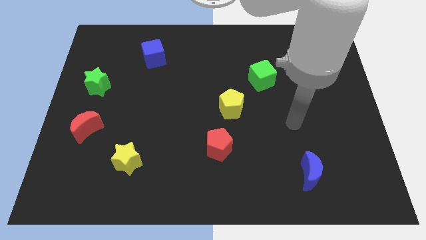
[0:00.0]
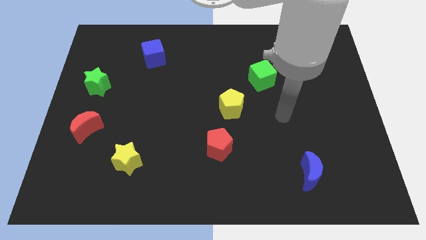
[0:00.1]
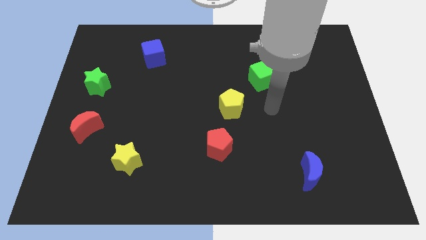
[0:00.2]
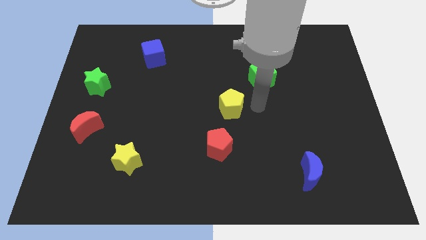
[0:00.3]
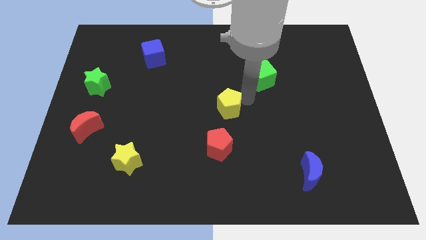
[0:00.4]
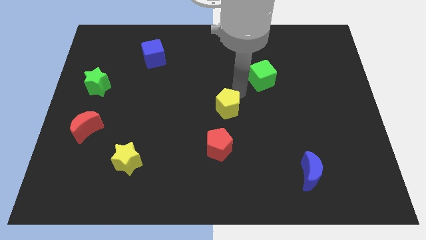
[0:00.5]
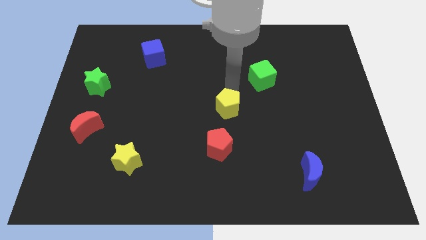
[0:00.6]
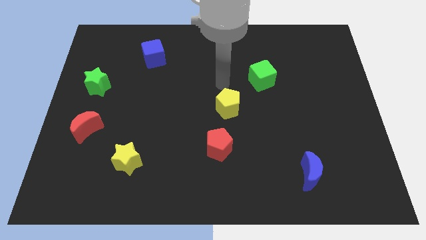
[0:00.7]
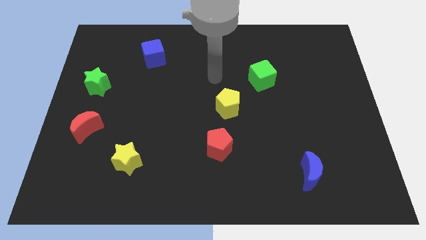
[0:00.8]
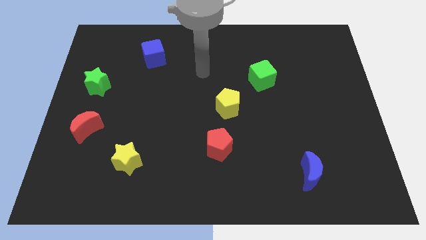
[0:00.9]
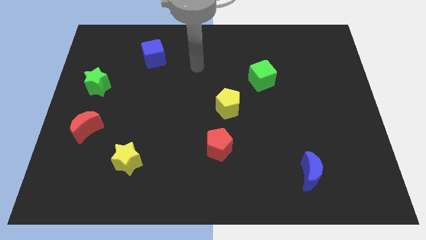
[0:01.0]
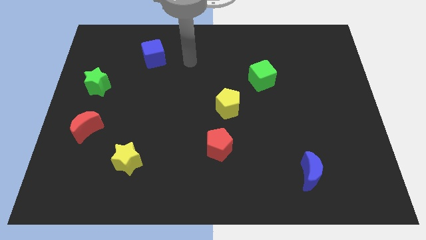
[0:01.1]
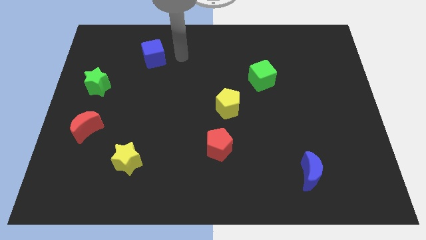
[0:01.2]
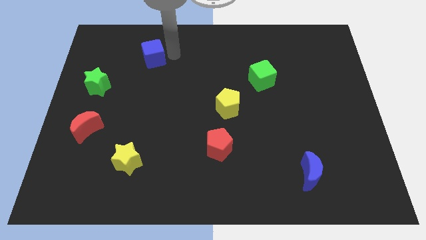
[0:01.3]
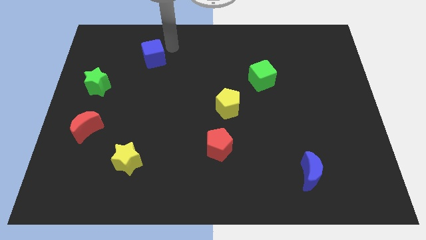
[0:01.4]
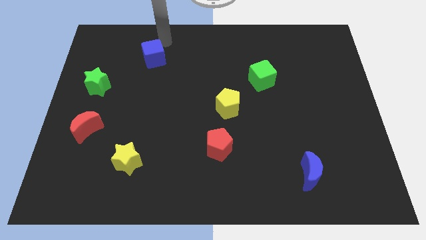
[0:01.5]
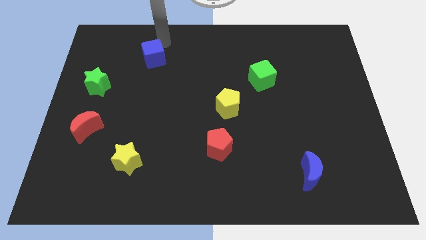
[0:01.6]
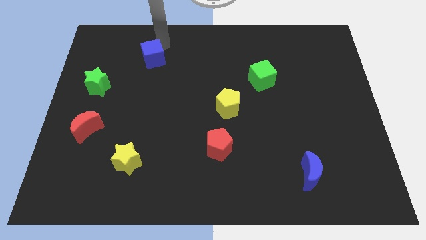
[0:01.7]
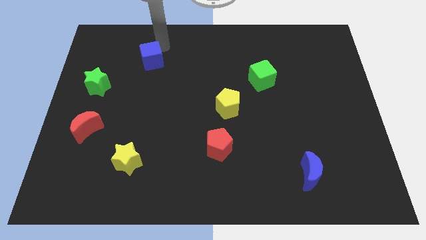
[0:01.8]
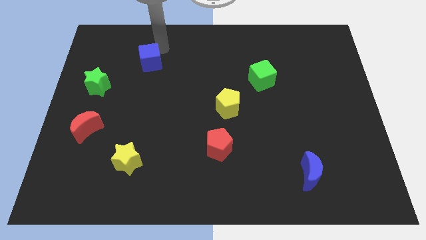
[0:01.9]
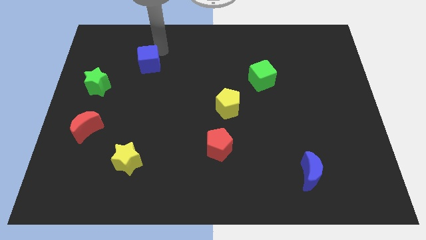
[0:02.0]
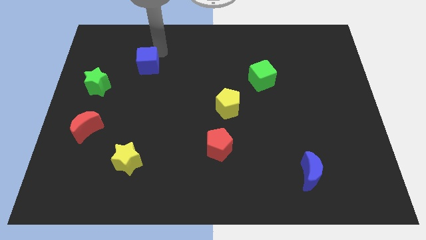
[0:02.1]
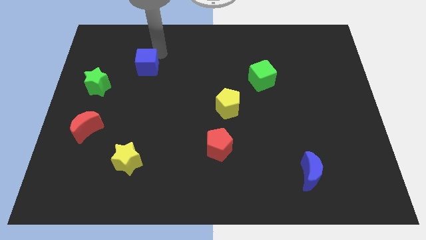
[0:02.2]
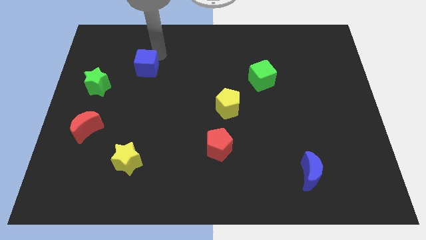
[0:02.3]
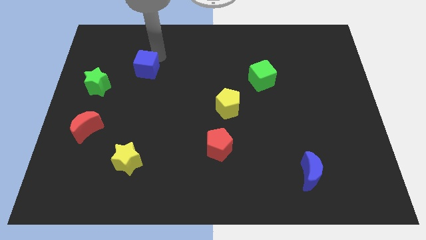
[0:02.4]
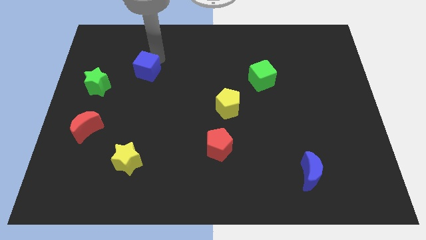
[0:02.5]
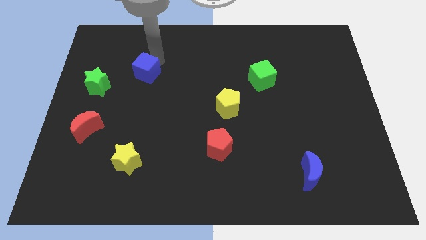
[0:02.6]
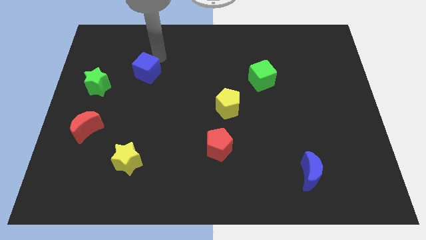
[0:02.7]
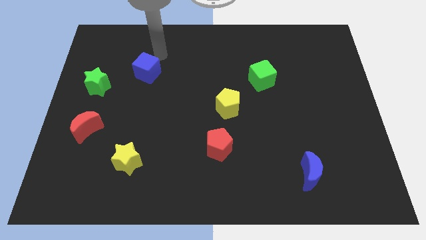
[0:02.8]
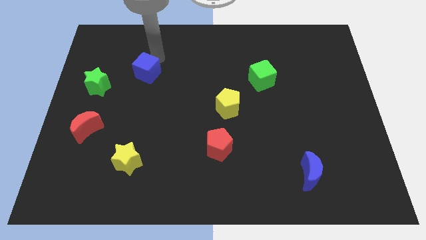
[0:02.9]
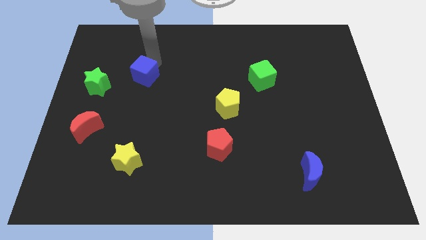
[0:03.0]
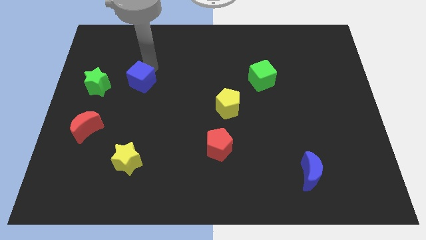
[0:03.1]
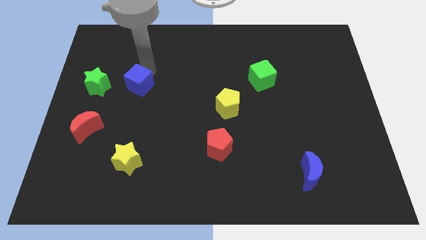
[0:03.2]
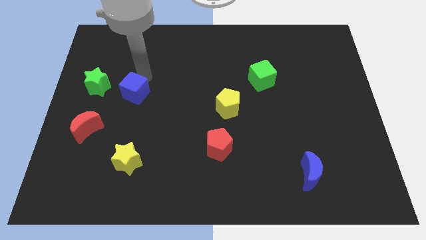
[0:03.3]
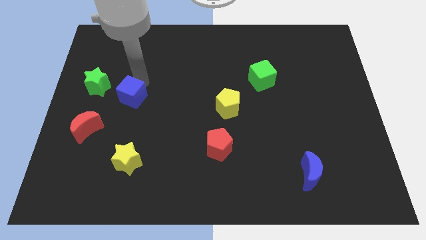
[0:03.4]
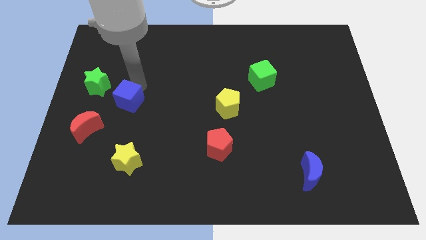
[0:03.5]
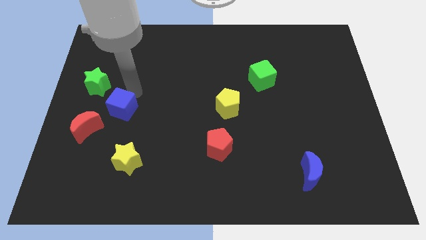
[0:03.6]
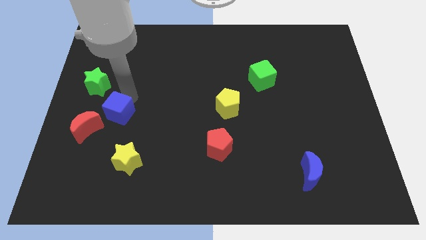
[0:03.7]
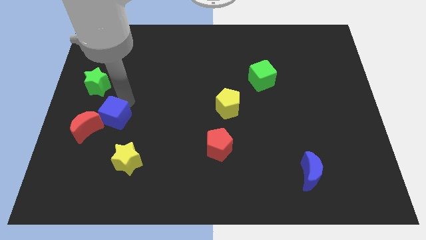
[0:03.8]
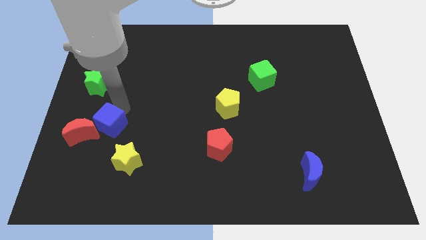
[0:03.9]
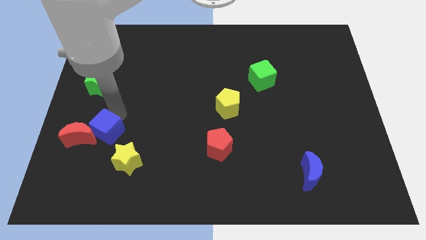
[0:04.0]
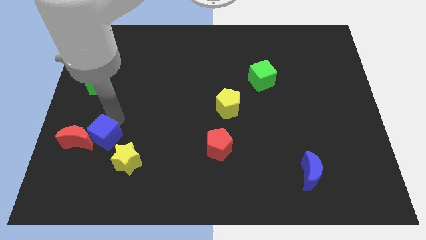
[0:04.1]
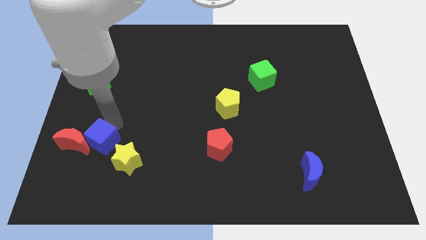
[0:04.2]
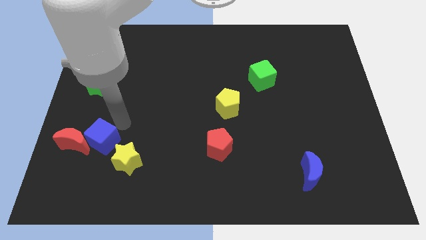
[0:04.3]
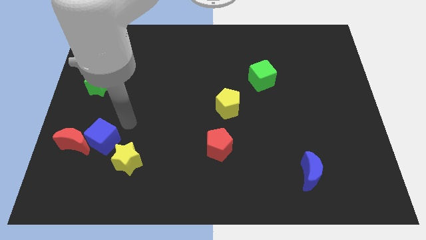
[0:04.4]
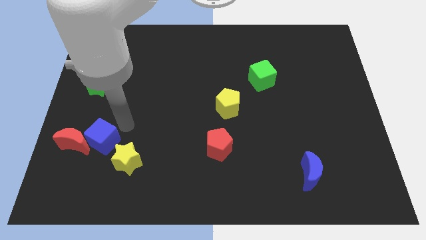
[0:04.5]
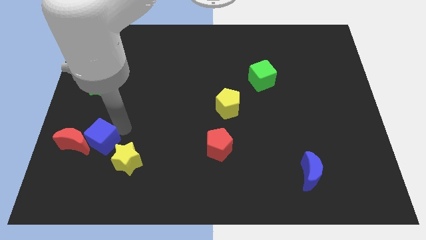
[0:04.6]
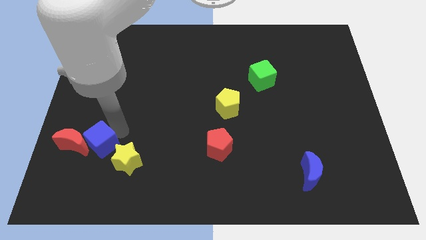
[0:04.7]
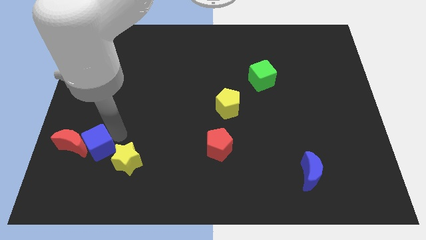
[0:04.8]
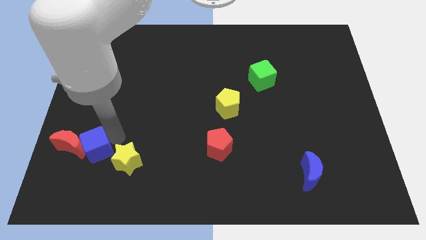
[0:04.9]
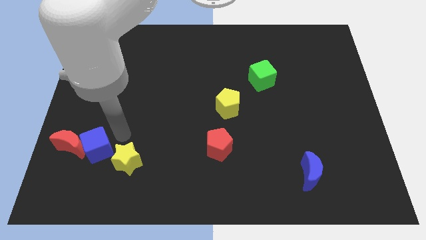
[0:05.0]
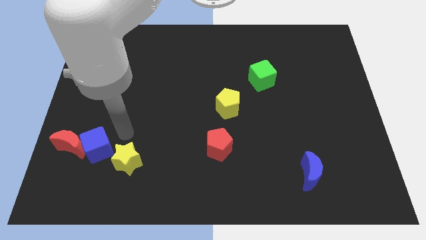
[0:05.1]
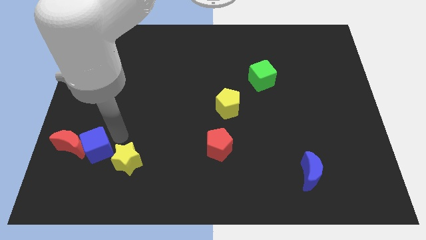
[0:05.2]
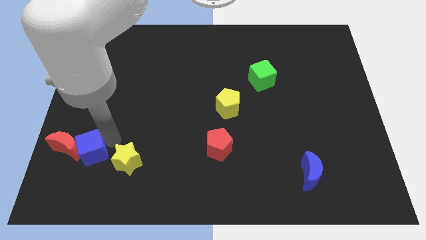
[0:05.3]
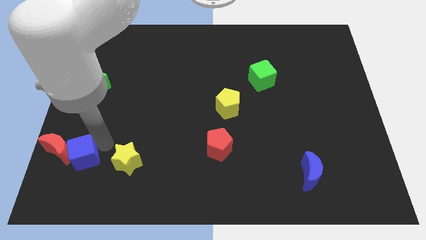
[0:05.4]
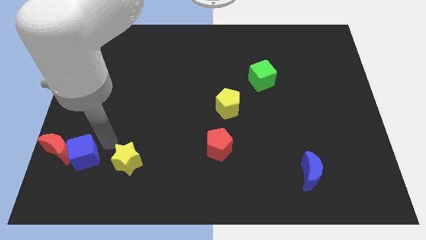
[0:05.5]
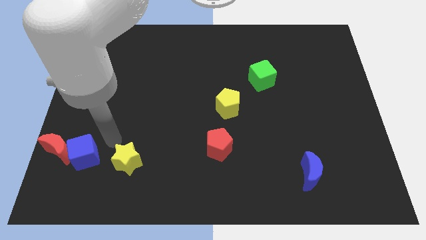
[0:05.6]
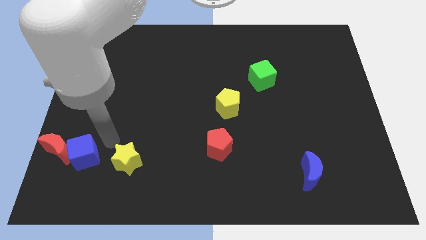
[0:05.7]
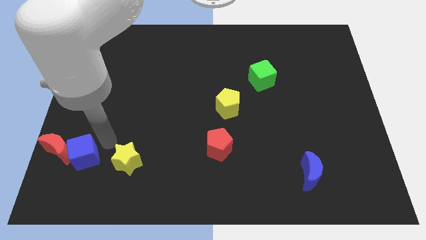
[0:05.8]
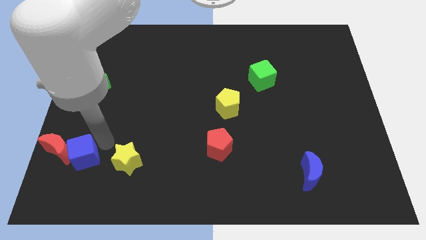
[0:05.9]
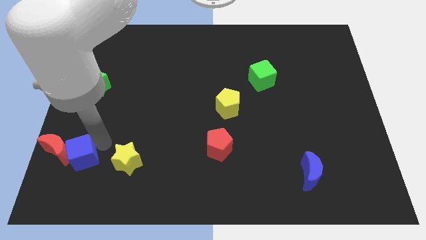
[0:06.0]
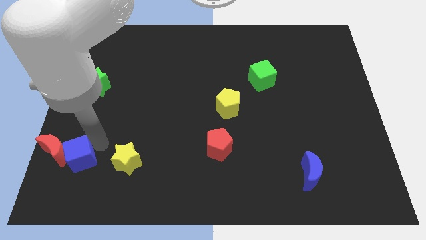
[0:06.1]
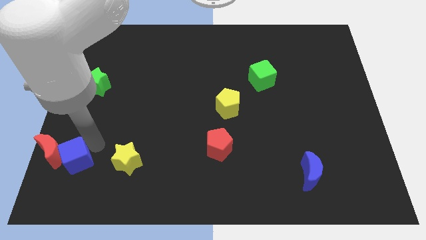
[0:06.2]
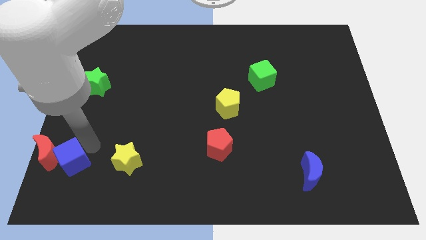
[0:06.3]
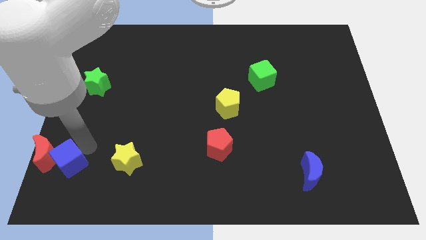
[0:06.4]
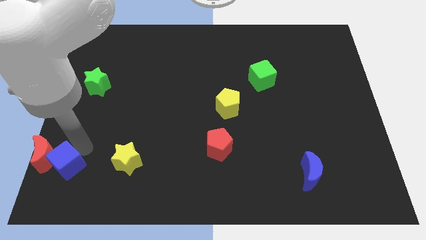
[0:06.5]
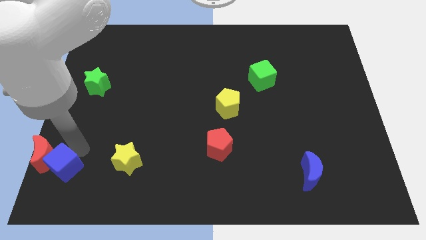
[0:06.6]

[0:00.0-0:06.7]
move the blue cube to the lower left corner
